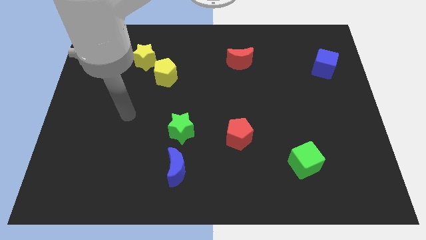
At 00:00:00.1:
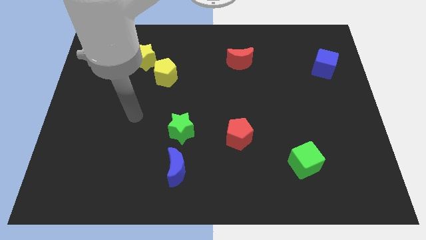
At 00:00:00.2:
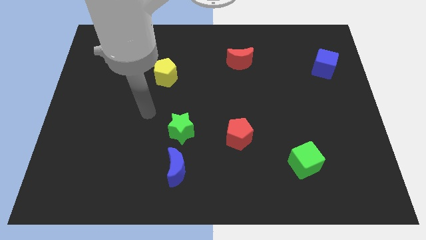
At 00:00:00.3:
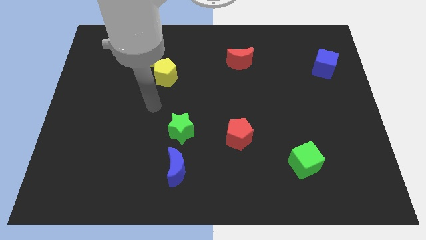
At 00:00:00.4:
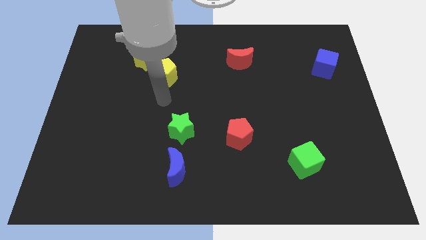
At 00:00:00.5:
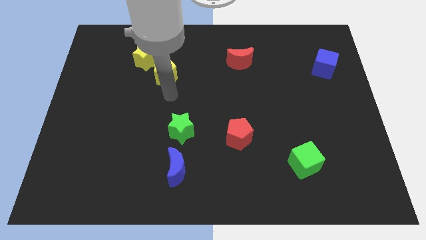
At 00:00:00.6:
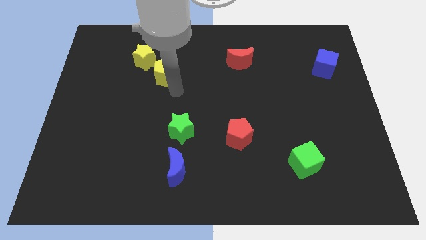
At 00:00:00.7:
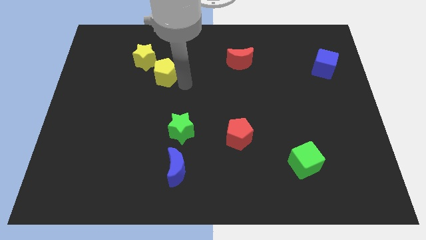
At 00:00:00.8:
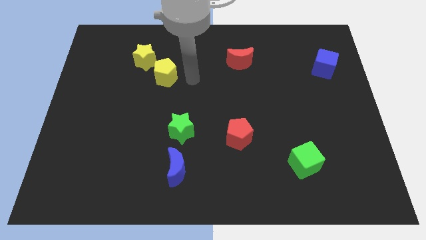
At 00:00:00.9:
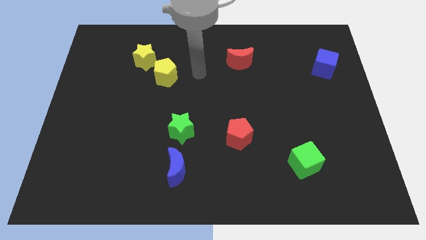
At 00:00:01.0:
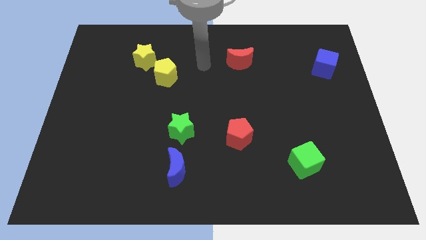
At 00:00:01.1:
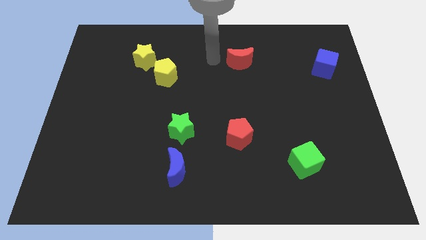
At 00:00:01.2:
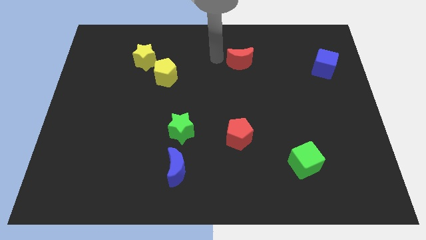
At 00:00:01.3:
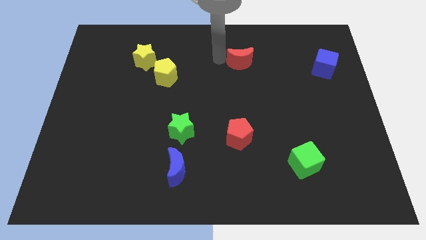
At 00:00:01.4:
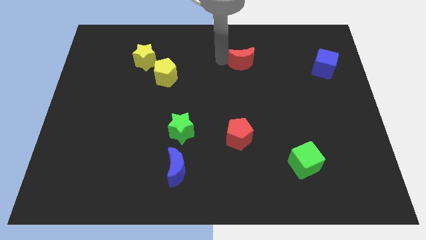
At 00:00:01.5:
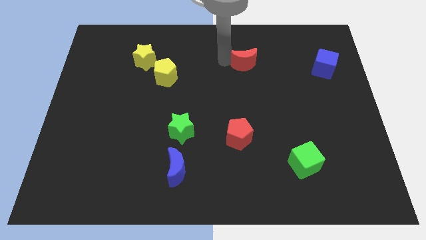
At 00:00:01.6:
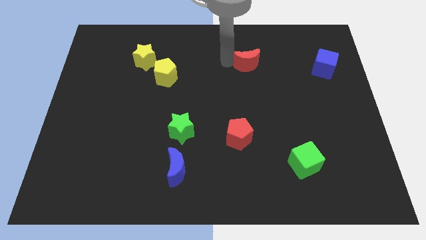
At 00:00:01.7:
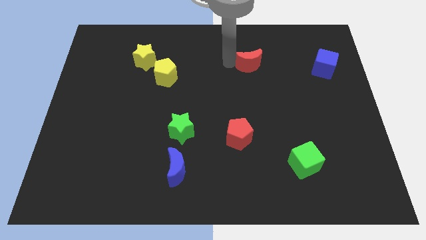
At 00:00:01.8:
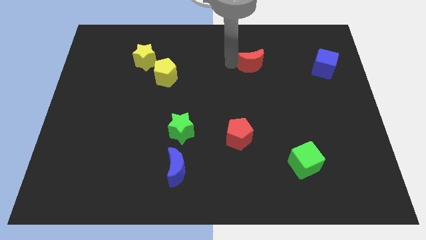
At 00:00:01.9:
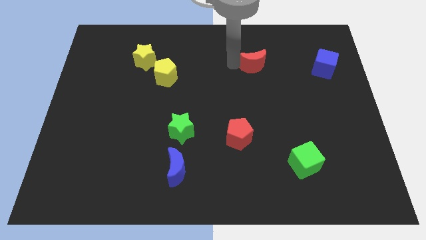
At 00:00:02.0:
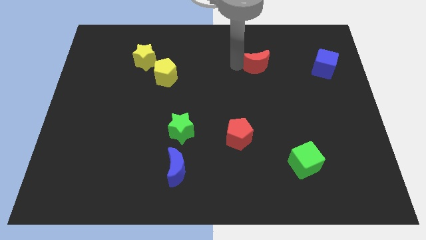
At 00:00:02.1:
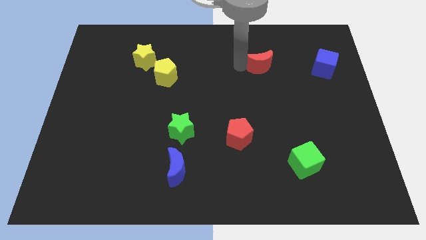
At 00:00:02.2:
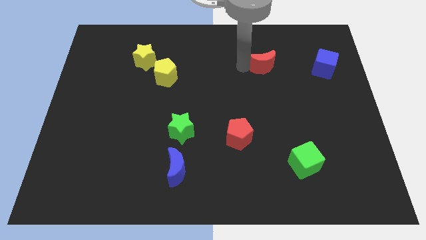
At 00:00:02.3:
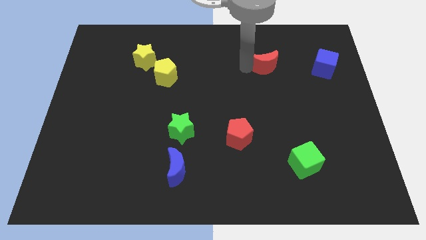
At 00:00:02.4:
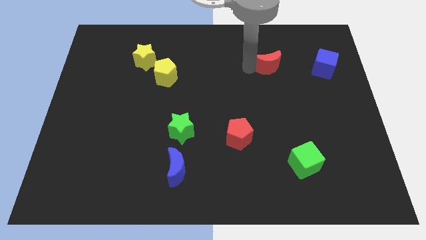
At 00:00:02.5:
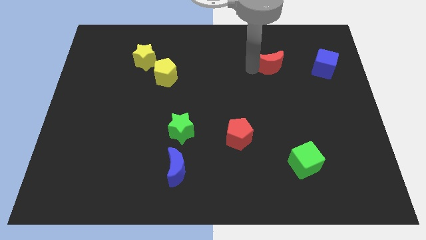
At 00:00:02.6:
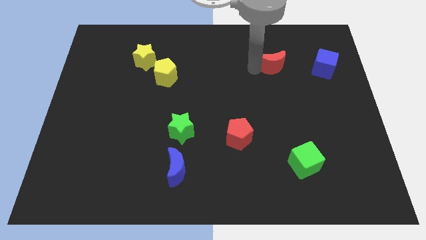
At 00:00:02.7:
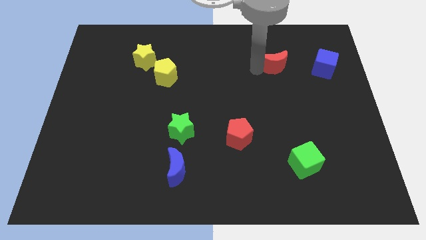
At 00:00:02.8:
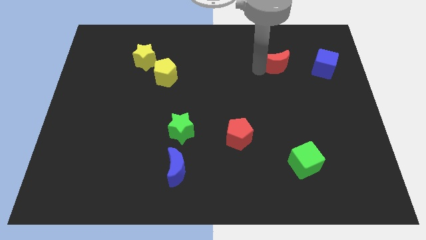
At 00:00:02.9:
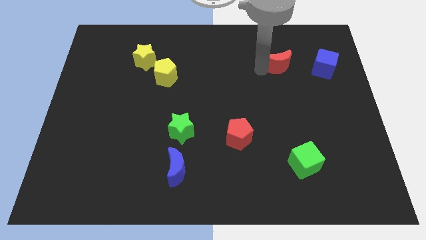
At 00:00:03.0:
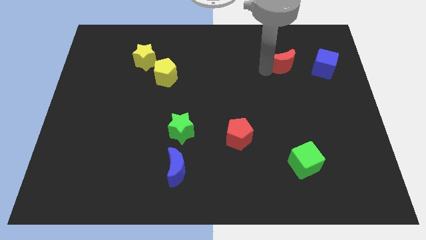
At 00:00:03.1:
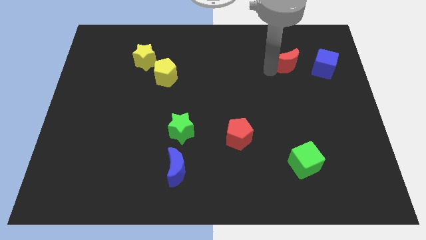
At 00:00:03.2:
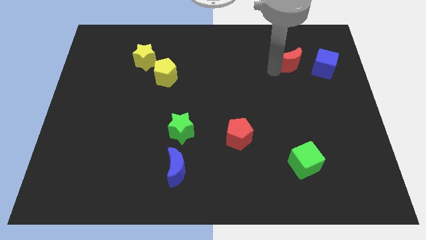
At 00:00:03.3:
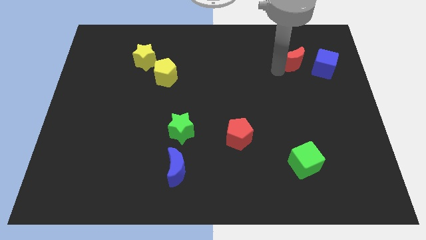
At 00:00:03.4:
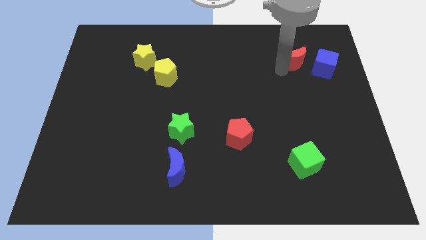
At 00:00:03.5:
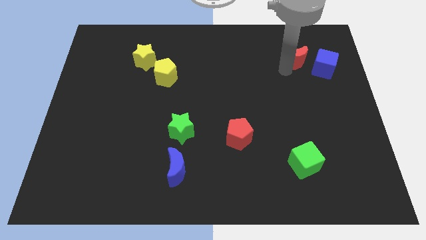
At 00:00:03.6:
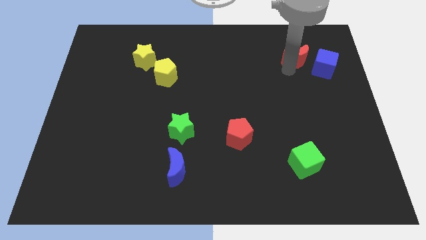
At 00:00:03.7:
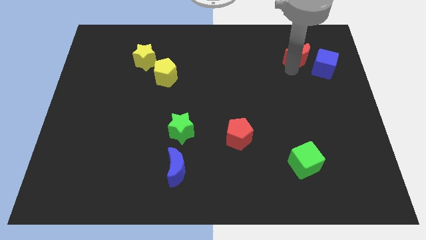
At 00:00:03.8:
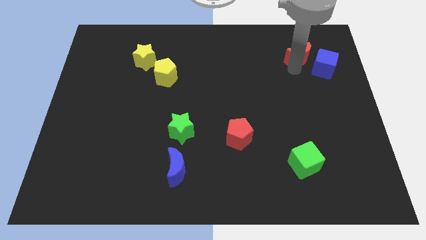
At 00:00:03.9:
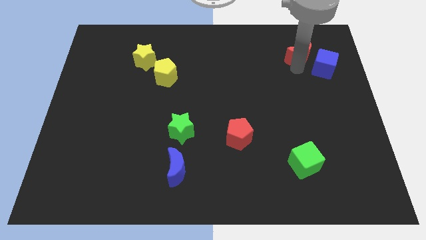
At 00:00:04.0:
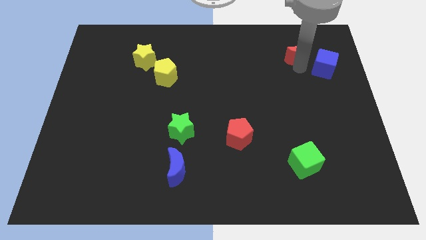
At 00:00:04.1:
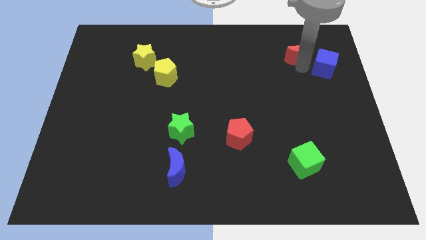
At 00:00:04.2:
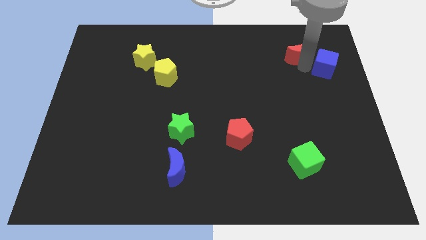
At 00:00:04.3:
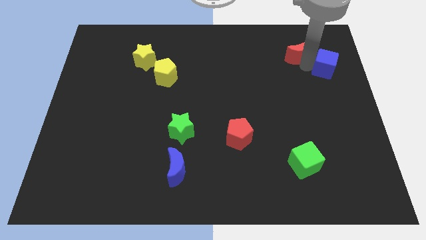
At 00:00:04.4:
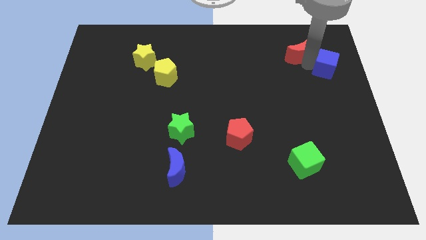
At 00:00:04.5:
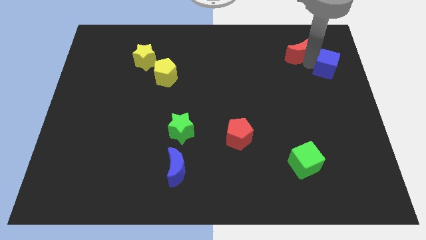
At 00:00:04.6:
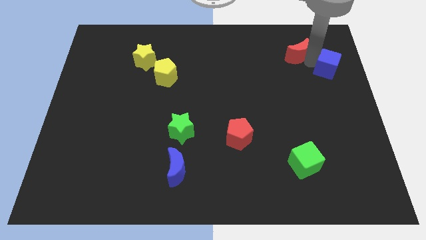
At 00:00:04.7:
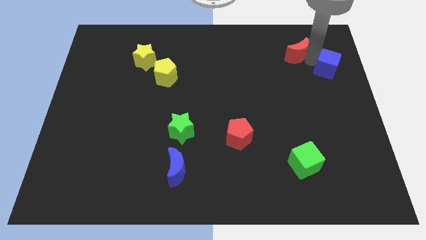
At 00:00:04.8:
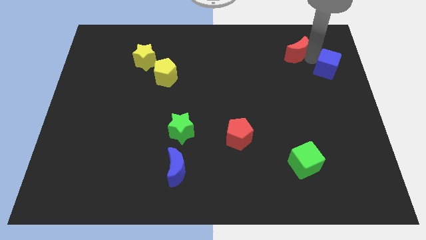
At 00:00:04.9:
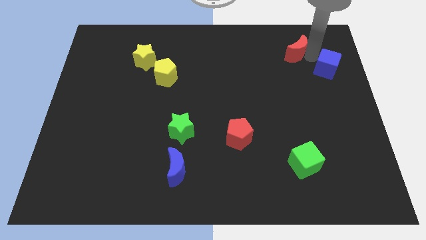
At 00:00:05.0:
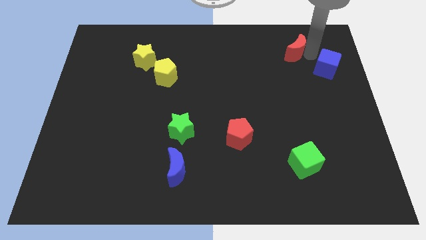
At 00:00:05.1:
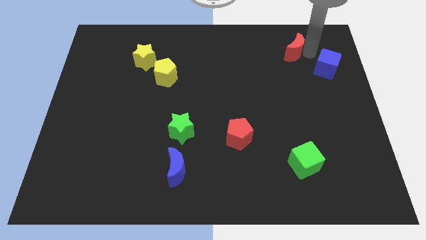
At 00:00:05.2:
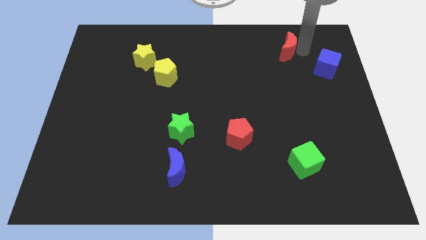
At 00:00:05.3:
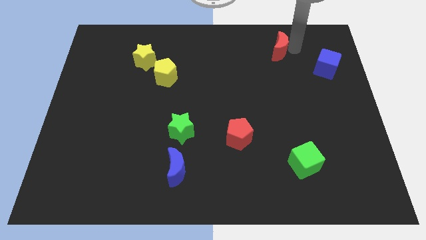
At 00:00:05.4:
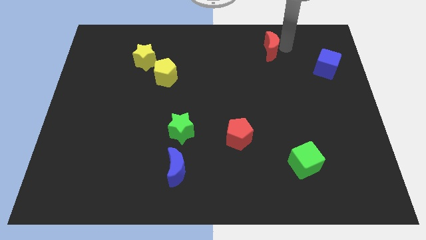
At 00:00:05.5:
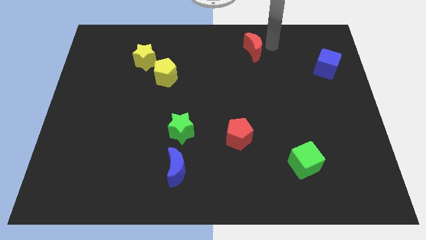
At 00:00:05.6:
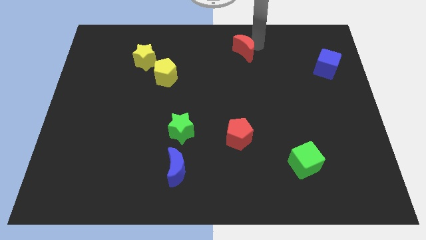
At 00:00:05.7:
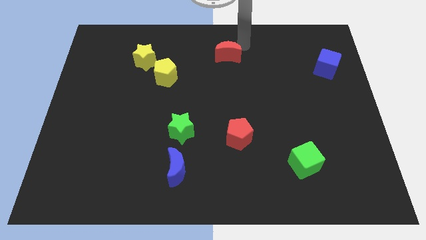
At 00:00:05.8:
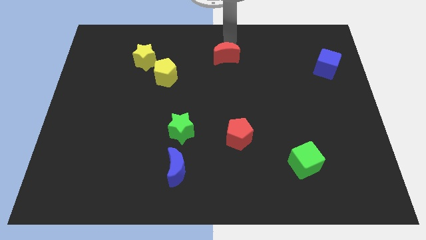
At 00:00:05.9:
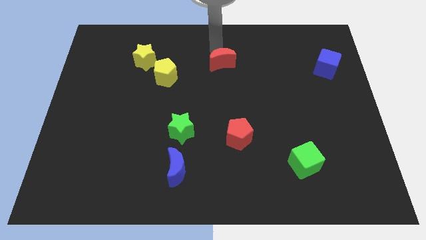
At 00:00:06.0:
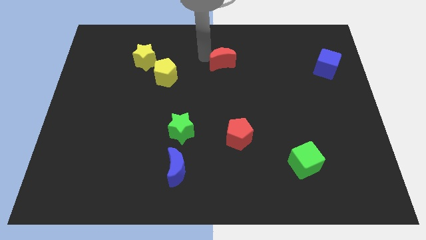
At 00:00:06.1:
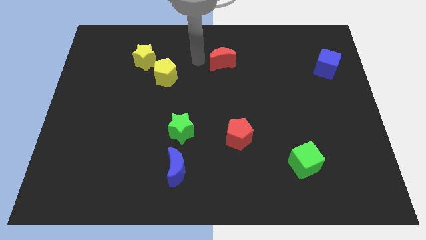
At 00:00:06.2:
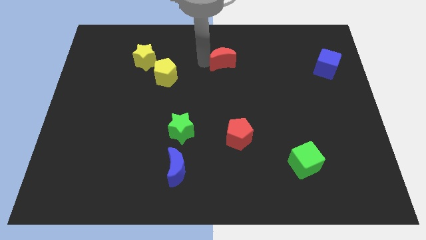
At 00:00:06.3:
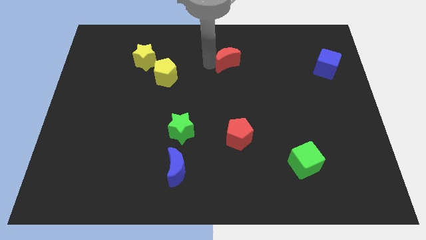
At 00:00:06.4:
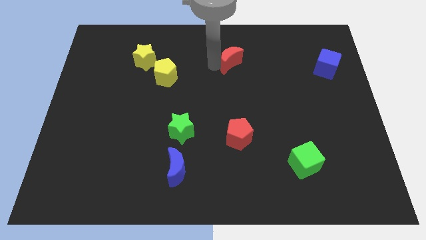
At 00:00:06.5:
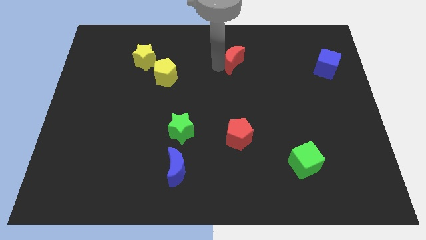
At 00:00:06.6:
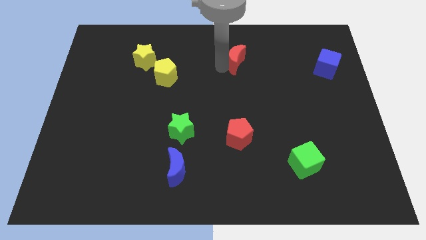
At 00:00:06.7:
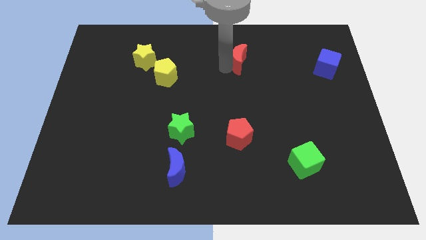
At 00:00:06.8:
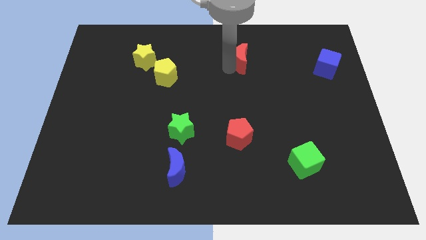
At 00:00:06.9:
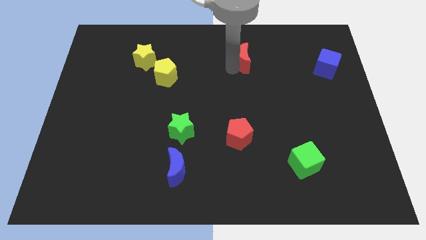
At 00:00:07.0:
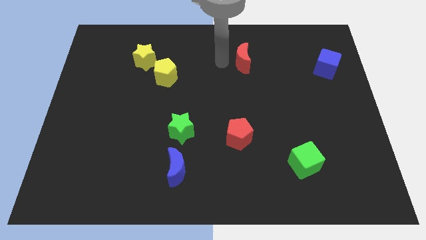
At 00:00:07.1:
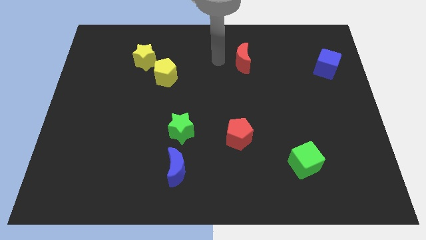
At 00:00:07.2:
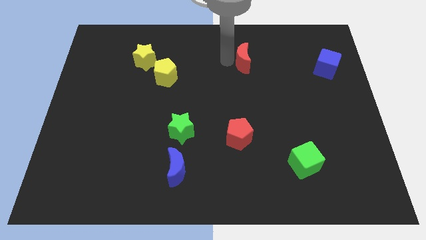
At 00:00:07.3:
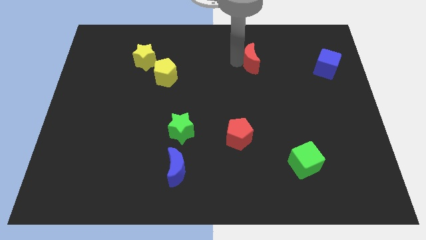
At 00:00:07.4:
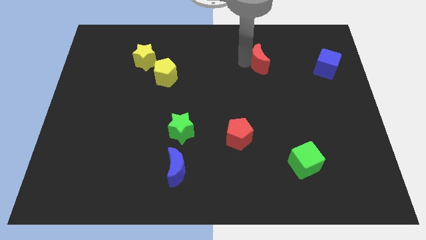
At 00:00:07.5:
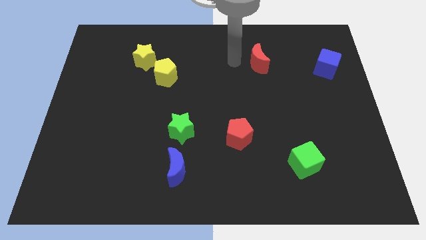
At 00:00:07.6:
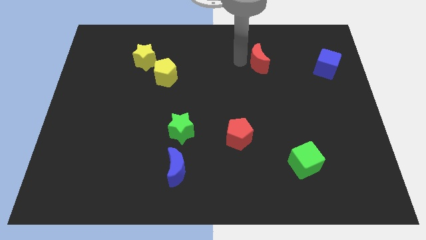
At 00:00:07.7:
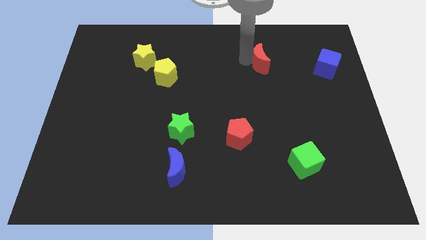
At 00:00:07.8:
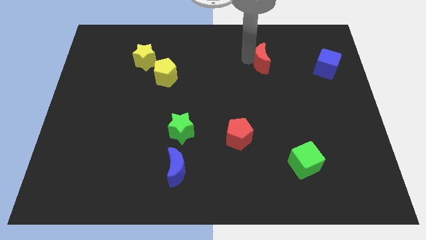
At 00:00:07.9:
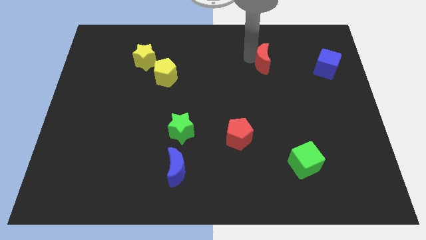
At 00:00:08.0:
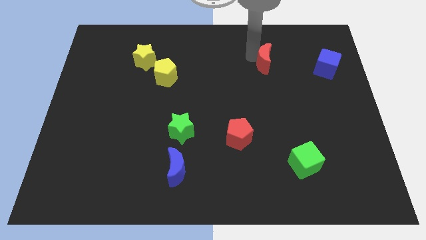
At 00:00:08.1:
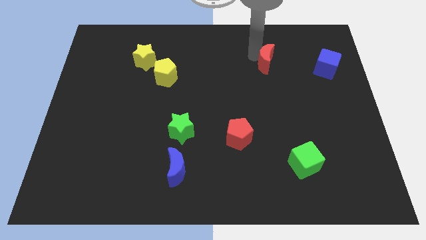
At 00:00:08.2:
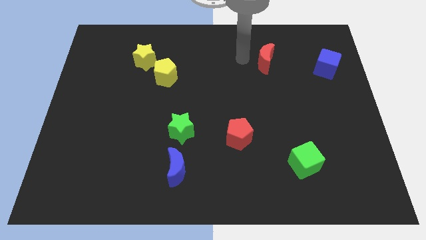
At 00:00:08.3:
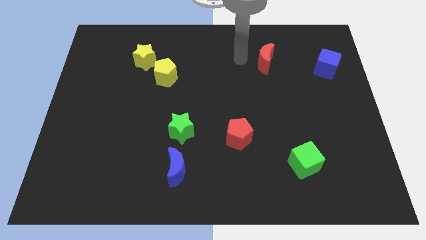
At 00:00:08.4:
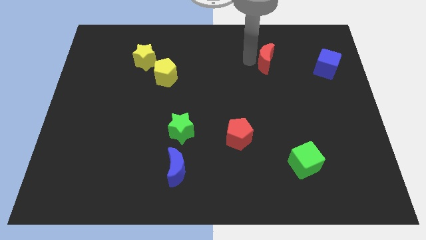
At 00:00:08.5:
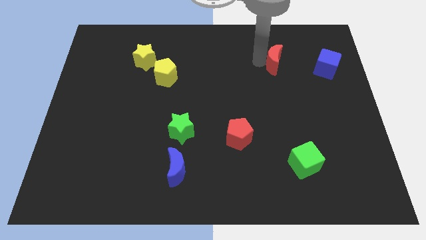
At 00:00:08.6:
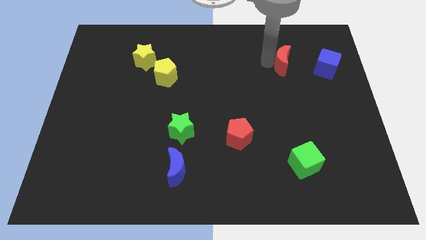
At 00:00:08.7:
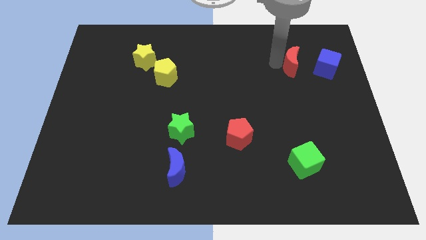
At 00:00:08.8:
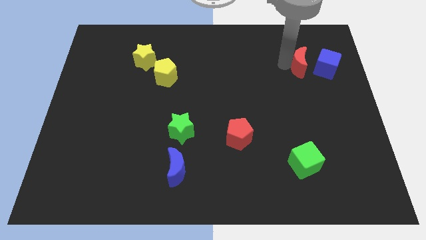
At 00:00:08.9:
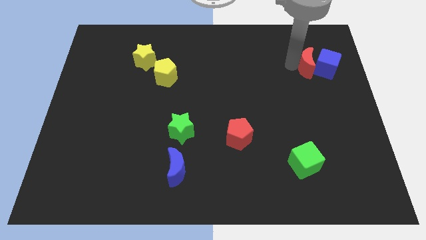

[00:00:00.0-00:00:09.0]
slide the red moon to the blue cube
